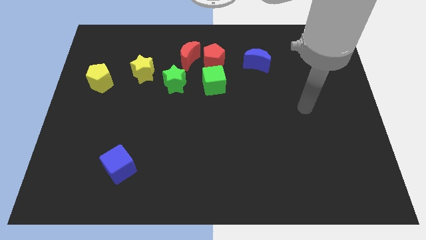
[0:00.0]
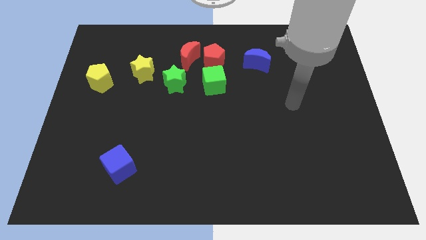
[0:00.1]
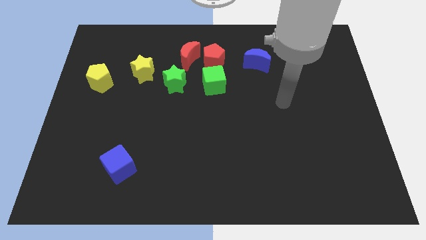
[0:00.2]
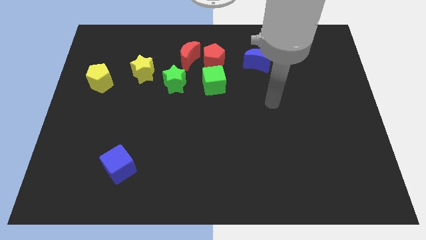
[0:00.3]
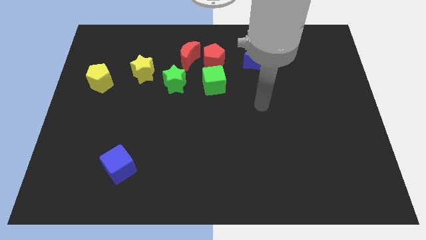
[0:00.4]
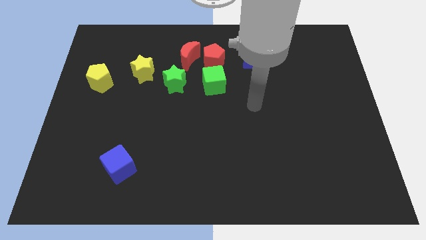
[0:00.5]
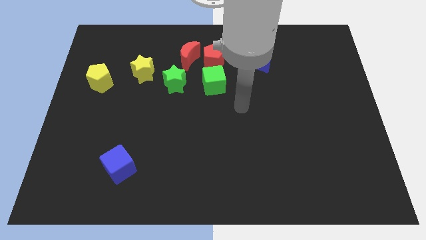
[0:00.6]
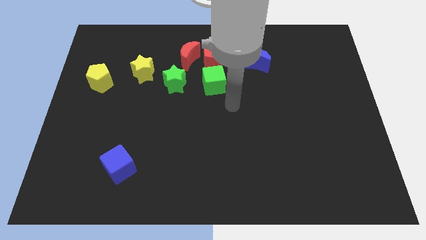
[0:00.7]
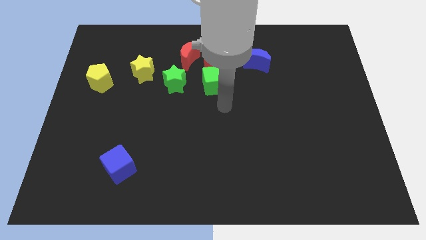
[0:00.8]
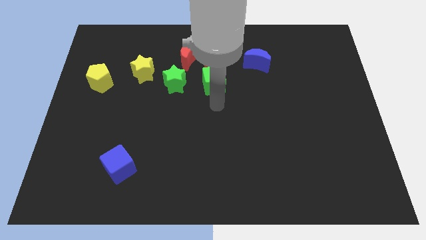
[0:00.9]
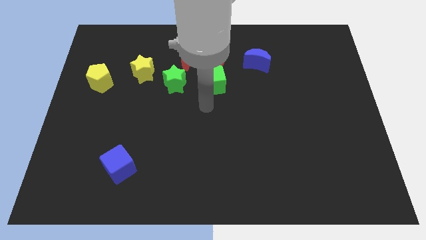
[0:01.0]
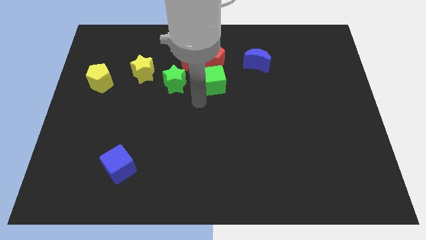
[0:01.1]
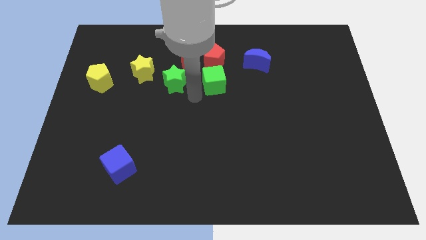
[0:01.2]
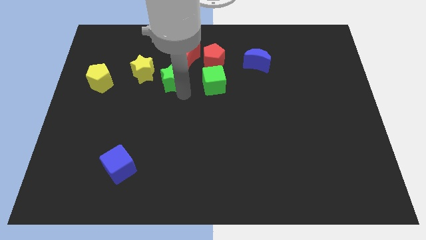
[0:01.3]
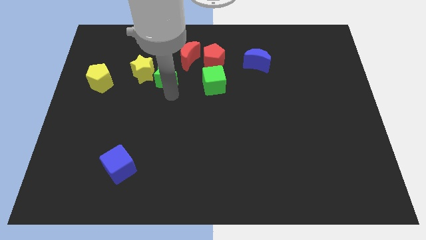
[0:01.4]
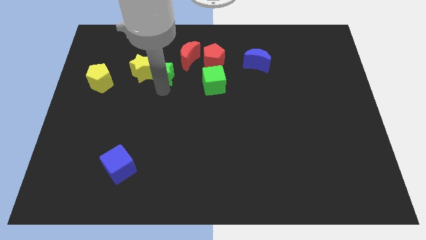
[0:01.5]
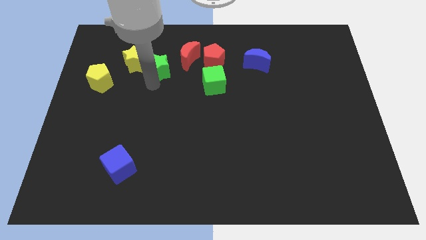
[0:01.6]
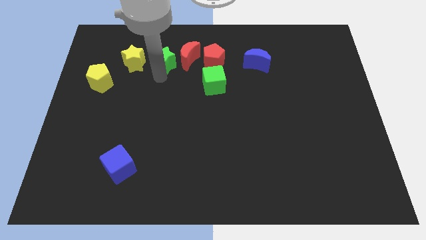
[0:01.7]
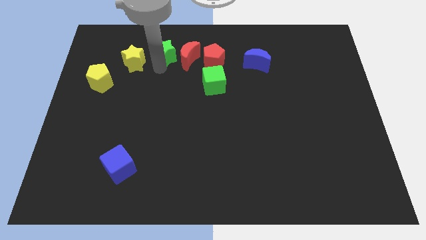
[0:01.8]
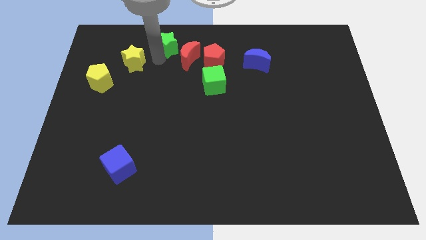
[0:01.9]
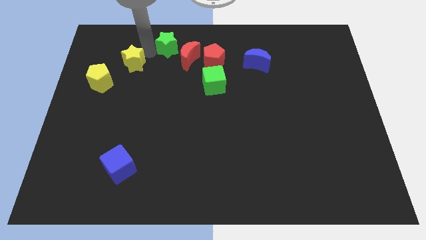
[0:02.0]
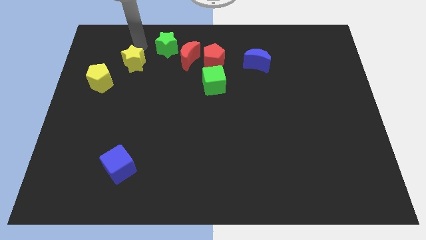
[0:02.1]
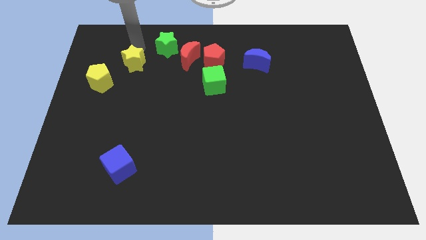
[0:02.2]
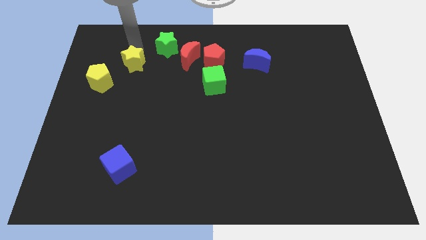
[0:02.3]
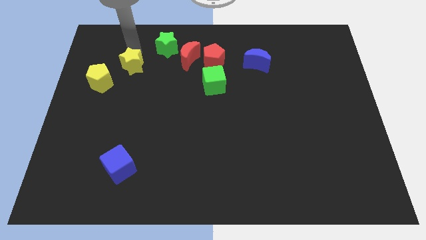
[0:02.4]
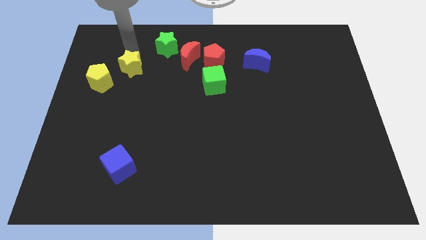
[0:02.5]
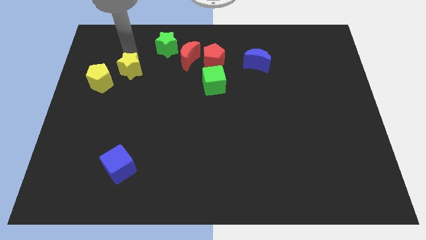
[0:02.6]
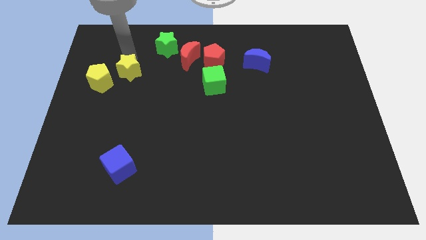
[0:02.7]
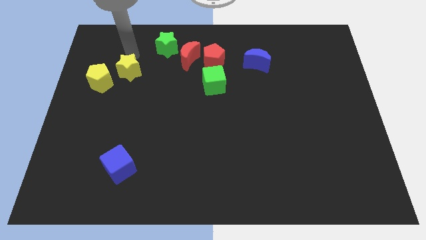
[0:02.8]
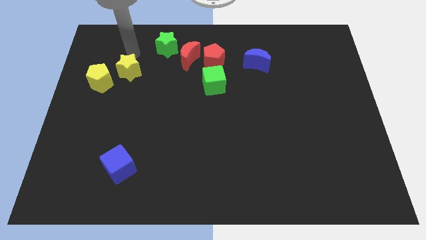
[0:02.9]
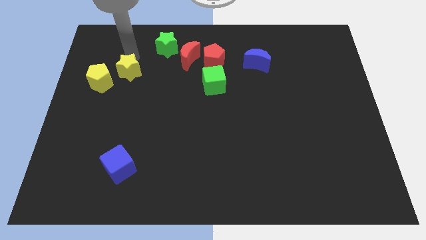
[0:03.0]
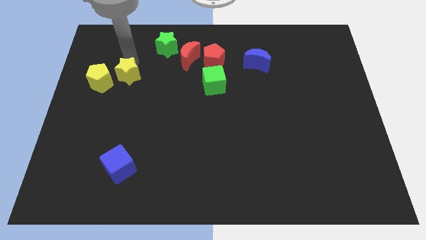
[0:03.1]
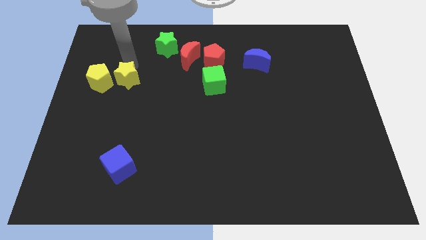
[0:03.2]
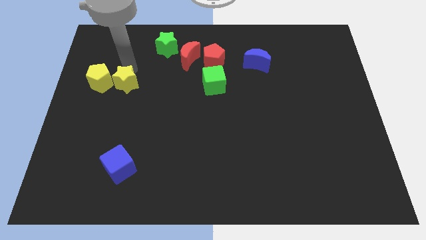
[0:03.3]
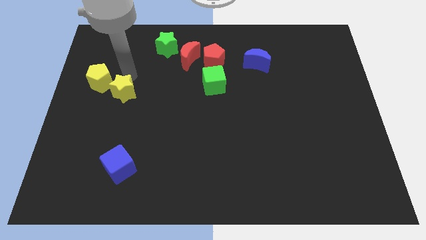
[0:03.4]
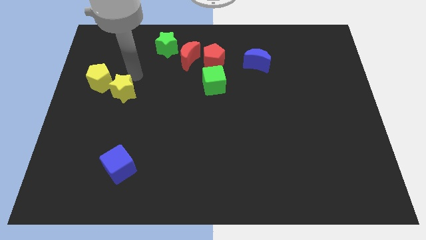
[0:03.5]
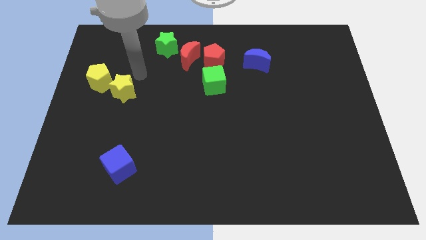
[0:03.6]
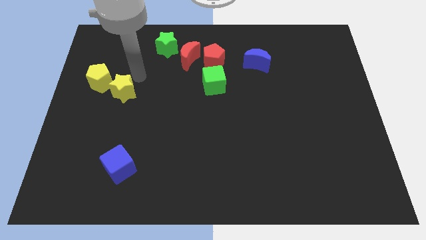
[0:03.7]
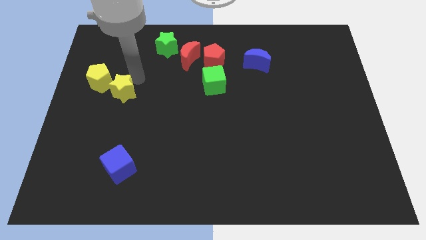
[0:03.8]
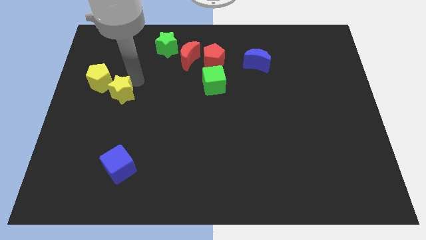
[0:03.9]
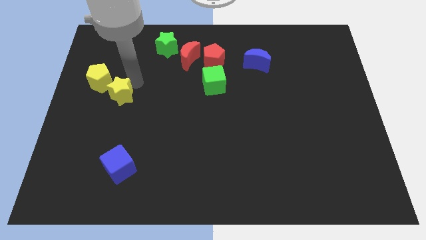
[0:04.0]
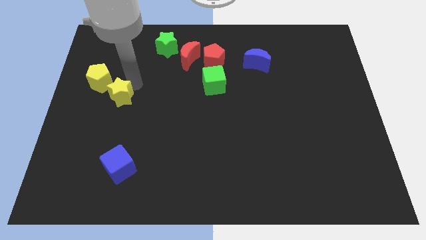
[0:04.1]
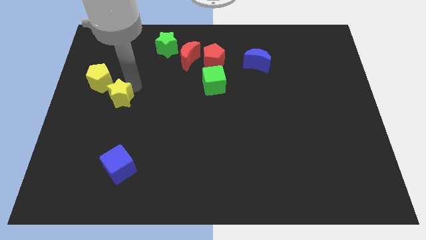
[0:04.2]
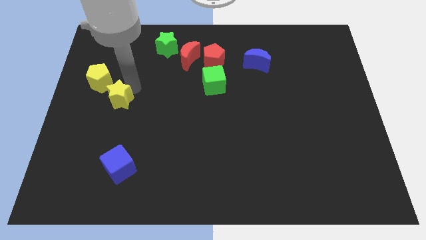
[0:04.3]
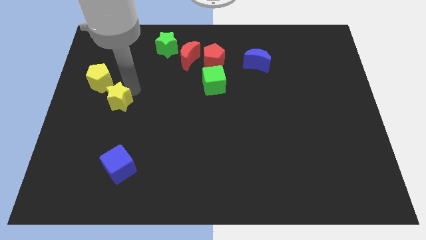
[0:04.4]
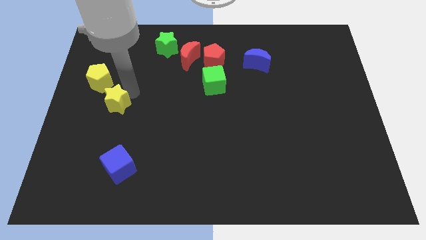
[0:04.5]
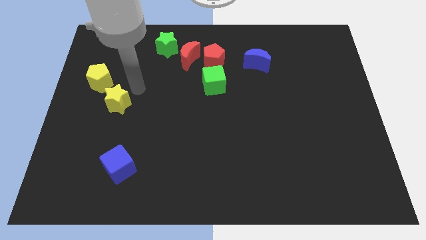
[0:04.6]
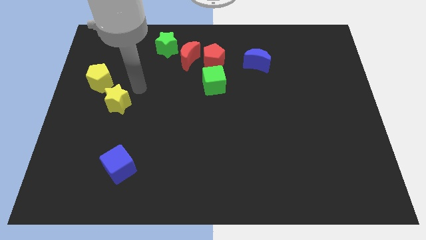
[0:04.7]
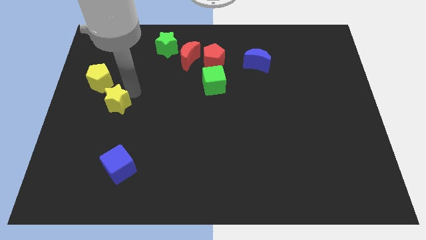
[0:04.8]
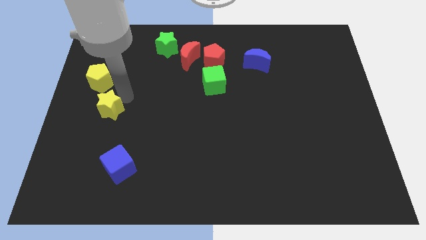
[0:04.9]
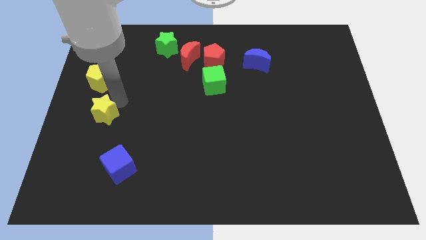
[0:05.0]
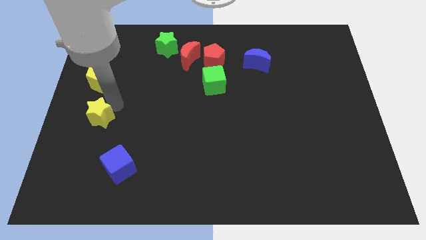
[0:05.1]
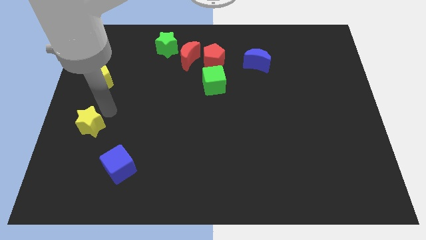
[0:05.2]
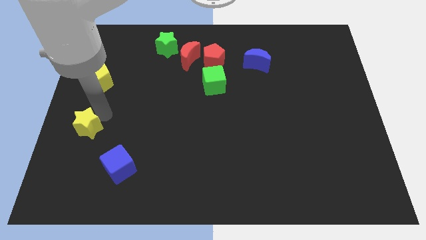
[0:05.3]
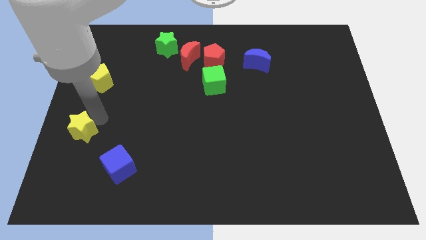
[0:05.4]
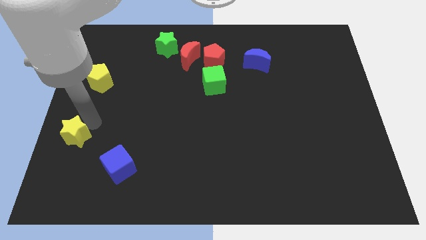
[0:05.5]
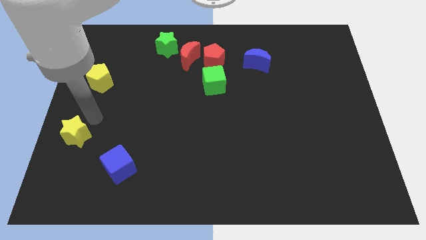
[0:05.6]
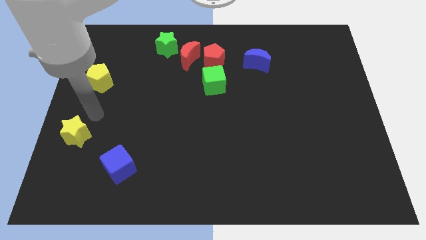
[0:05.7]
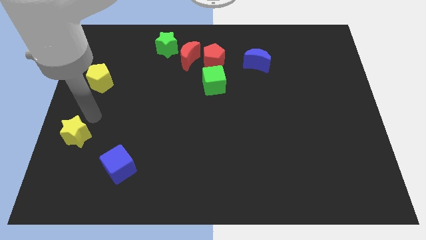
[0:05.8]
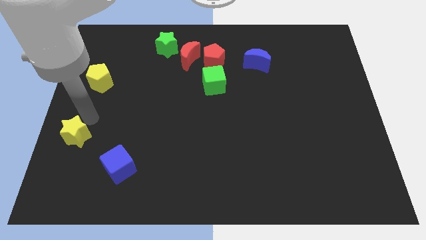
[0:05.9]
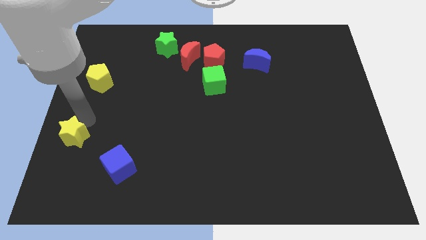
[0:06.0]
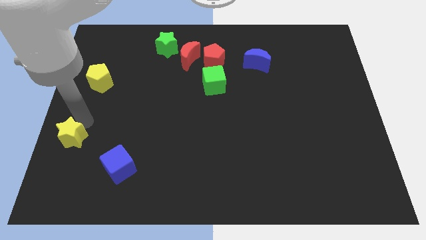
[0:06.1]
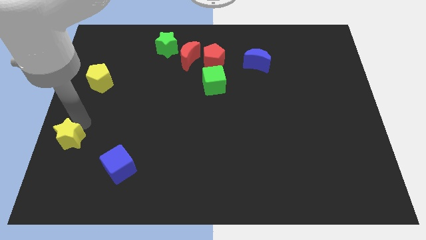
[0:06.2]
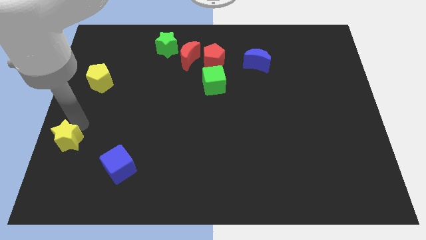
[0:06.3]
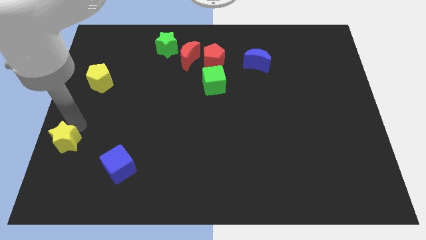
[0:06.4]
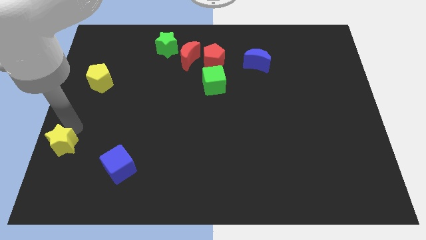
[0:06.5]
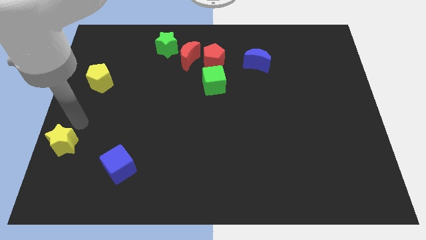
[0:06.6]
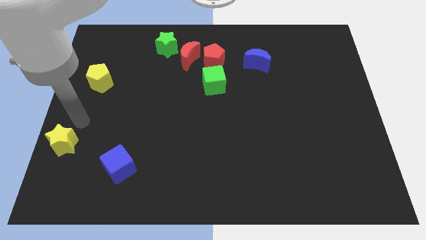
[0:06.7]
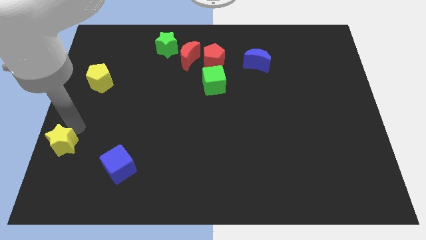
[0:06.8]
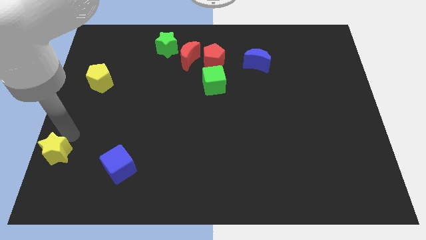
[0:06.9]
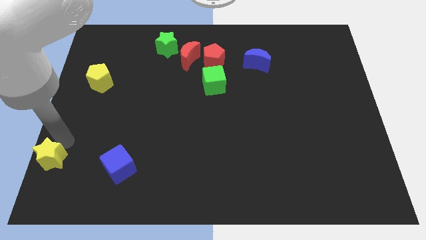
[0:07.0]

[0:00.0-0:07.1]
put the yellow star to the bottom left
